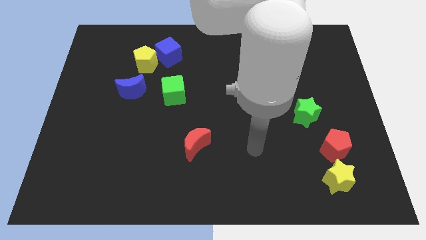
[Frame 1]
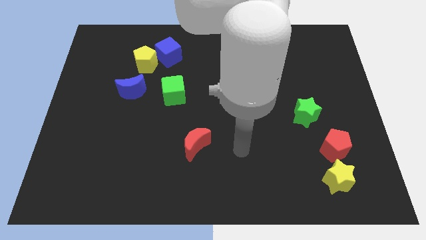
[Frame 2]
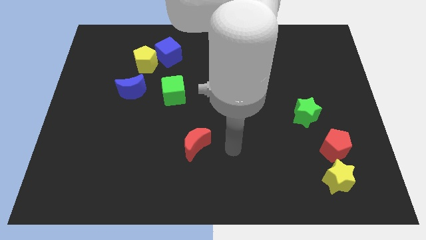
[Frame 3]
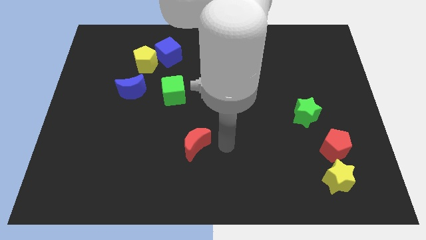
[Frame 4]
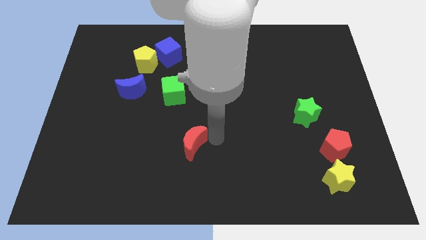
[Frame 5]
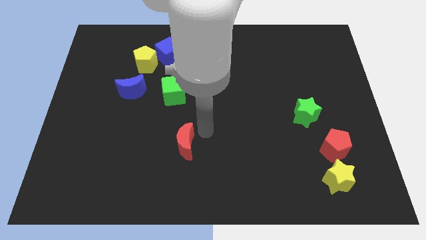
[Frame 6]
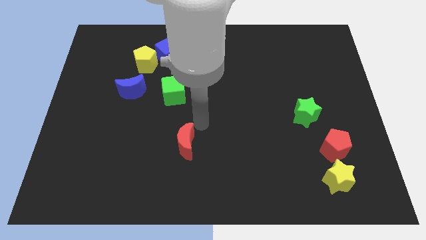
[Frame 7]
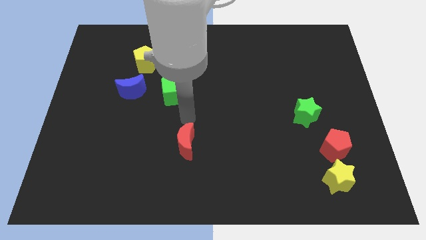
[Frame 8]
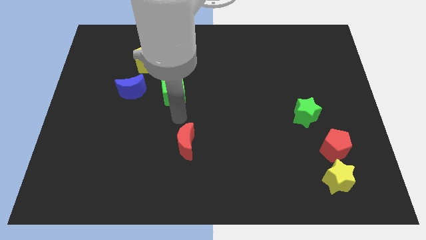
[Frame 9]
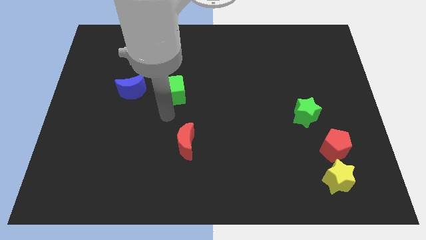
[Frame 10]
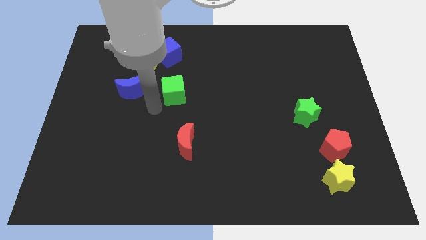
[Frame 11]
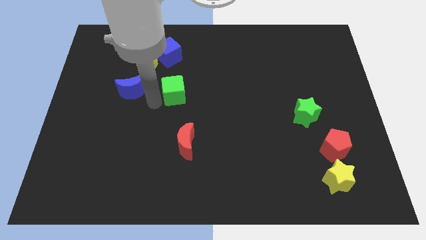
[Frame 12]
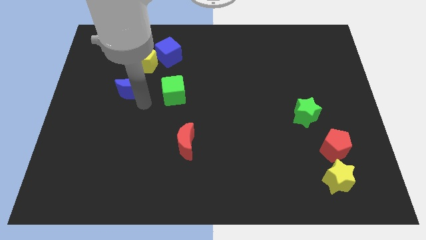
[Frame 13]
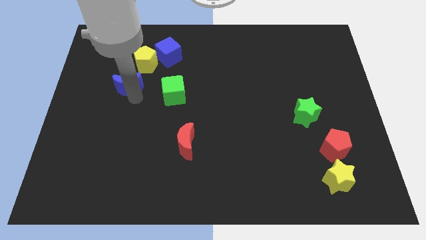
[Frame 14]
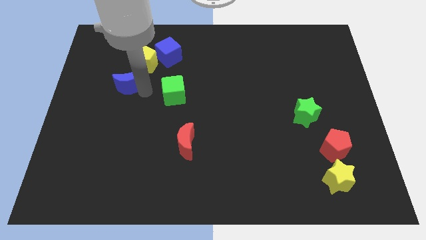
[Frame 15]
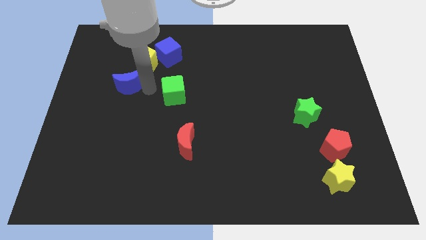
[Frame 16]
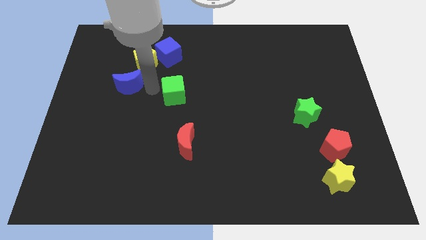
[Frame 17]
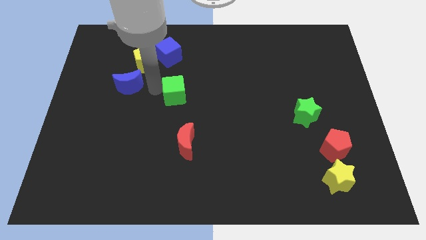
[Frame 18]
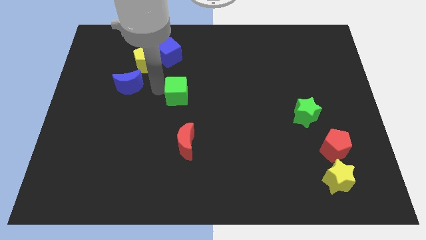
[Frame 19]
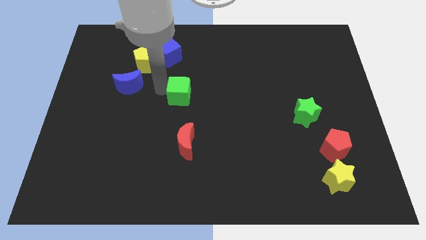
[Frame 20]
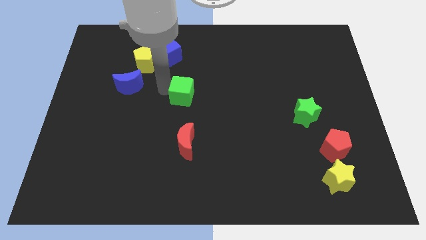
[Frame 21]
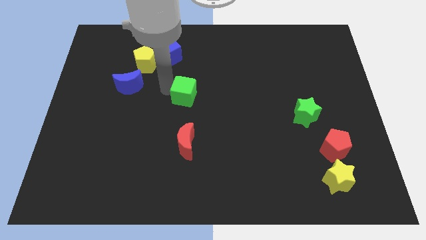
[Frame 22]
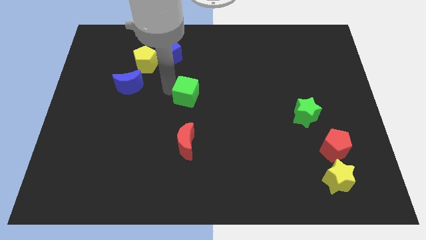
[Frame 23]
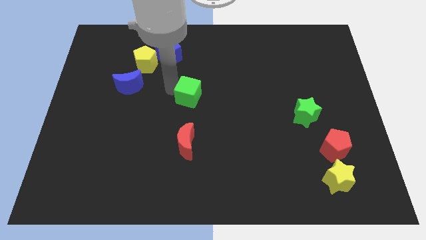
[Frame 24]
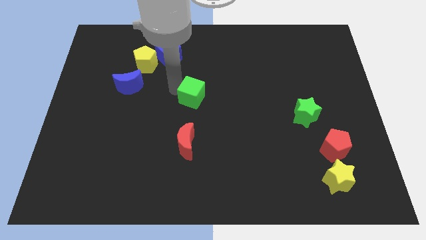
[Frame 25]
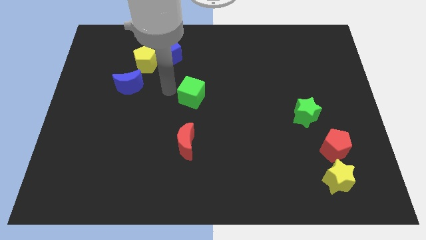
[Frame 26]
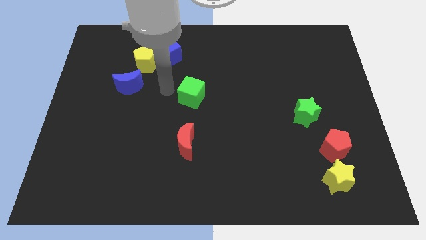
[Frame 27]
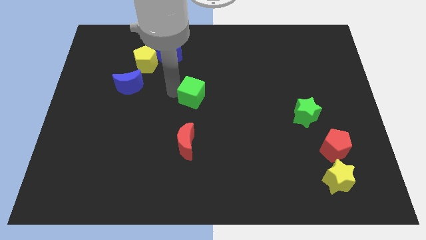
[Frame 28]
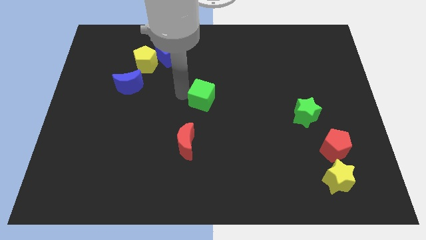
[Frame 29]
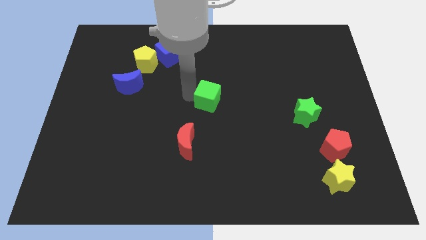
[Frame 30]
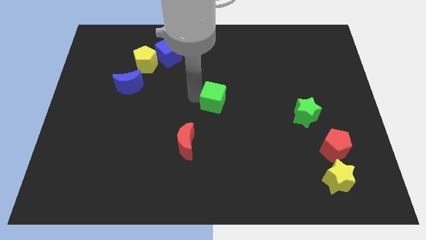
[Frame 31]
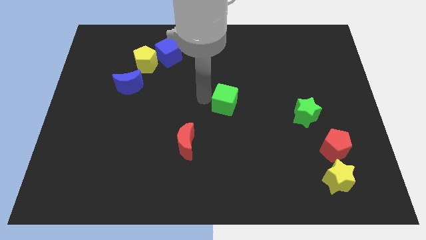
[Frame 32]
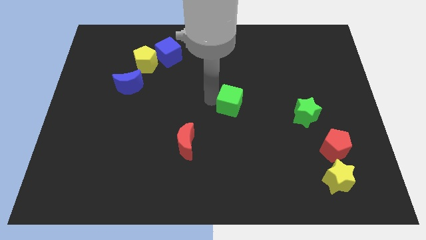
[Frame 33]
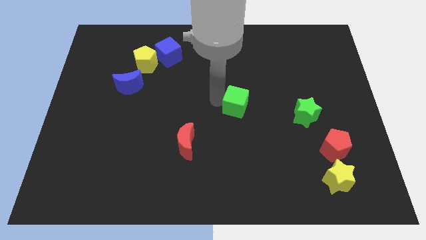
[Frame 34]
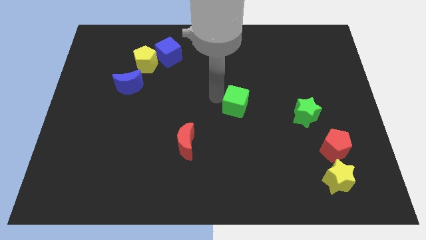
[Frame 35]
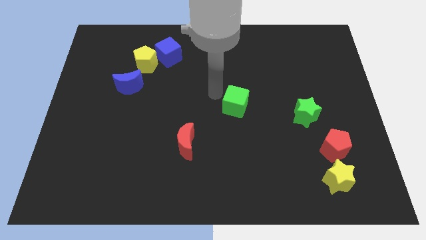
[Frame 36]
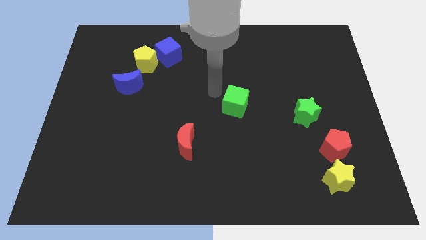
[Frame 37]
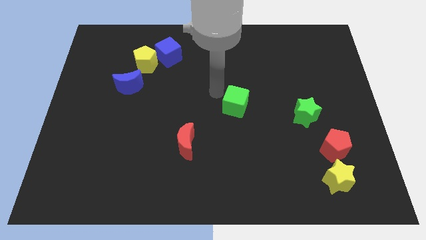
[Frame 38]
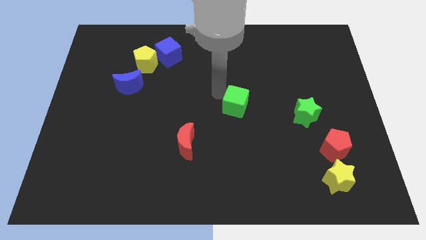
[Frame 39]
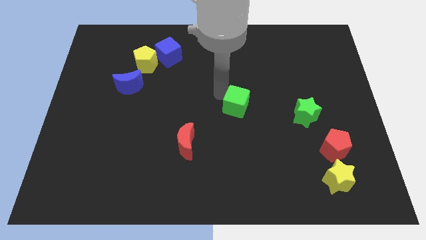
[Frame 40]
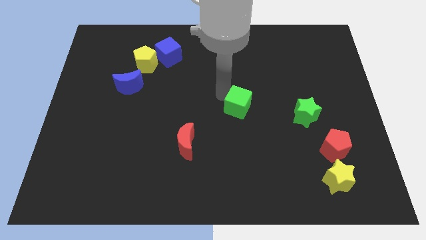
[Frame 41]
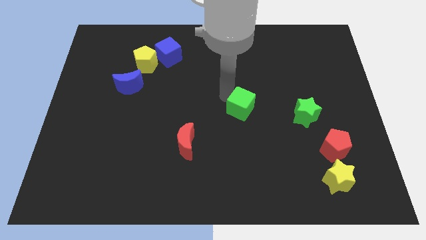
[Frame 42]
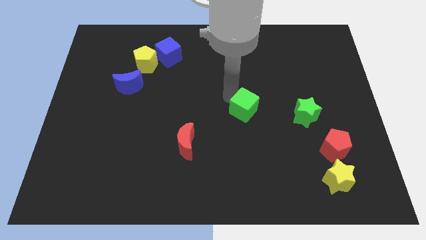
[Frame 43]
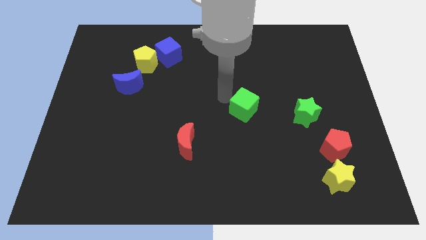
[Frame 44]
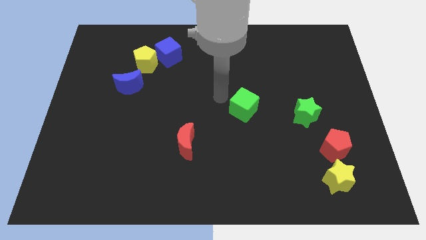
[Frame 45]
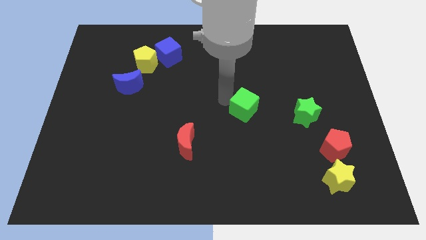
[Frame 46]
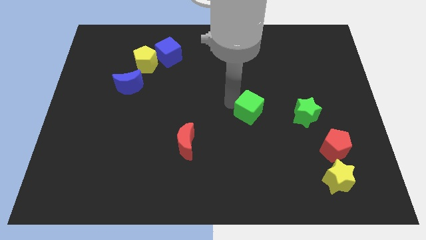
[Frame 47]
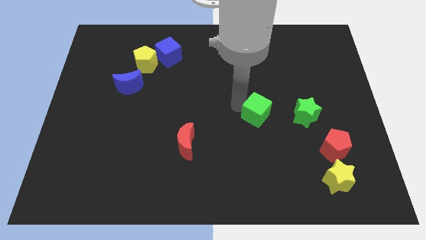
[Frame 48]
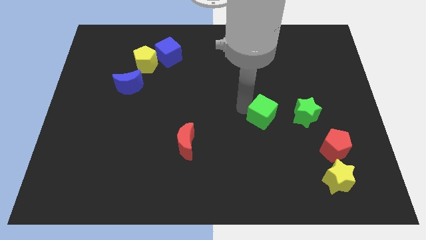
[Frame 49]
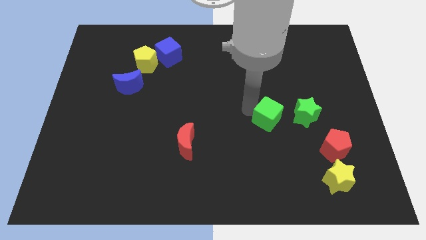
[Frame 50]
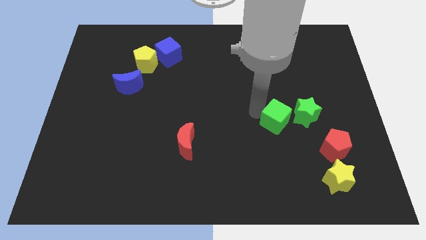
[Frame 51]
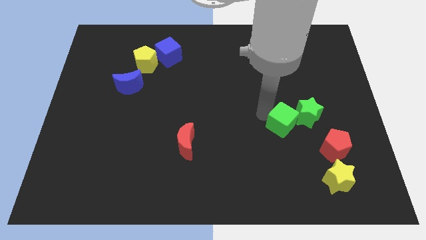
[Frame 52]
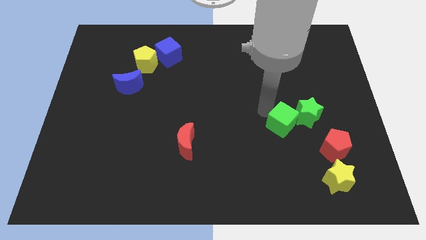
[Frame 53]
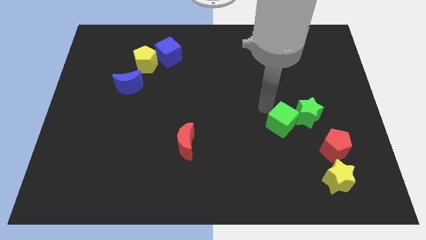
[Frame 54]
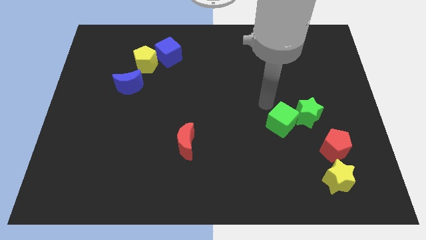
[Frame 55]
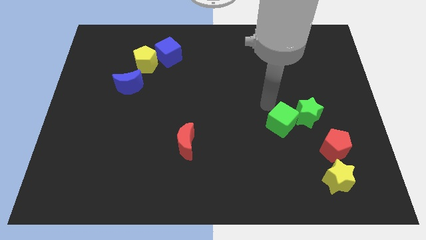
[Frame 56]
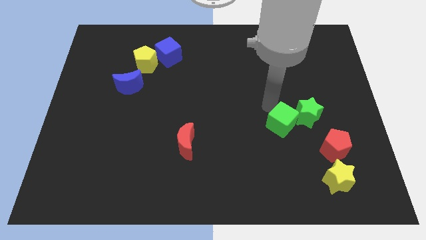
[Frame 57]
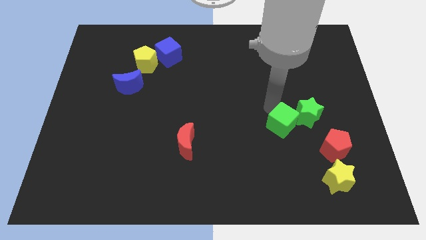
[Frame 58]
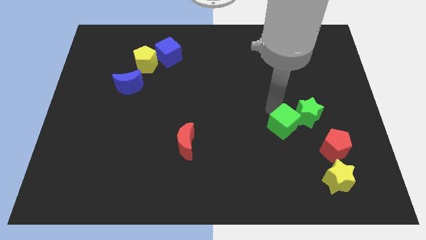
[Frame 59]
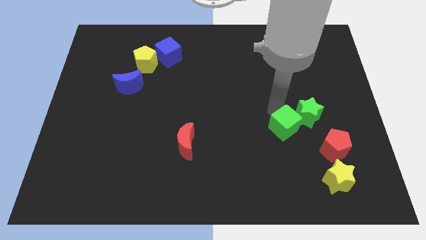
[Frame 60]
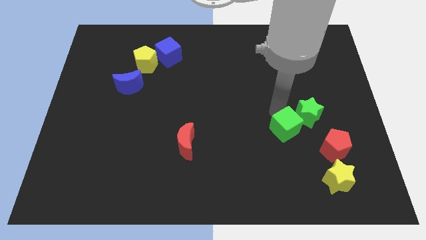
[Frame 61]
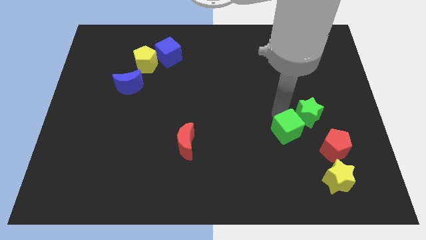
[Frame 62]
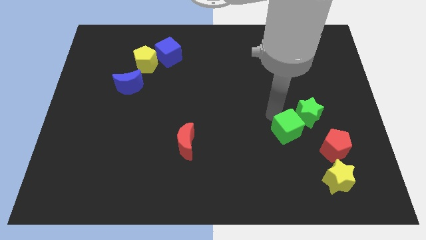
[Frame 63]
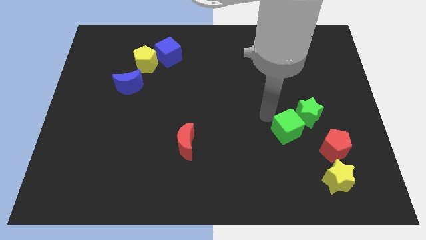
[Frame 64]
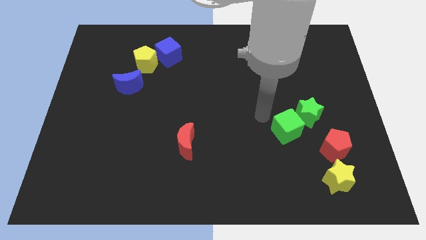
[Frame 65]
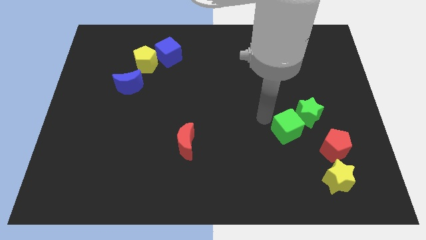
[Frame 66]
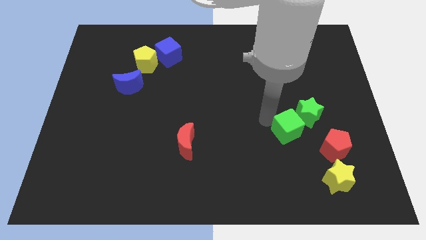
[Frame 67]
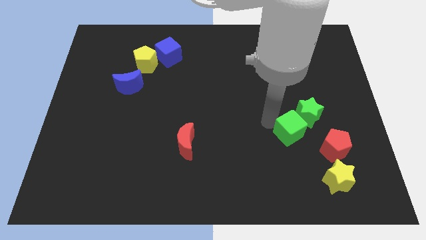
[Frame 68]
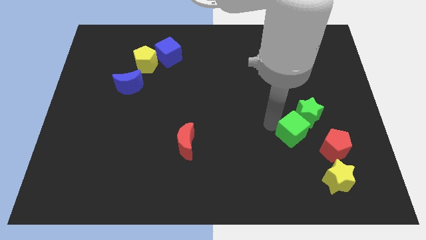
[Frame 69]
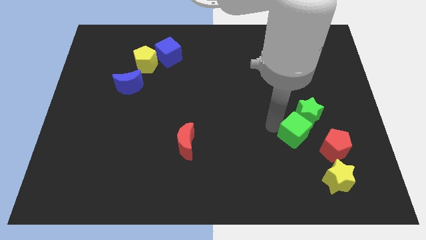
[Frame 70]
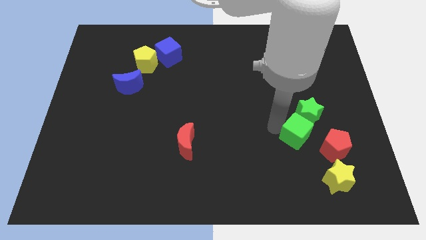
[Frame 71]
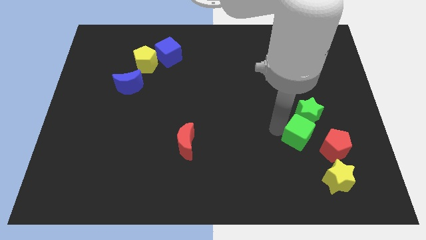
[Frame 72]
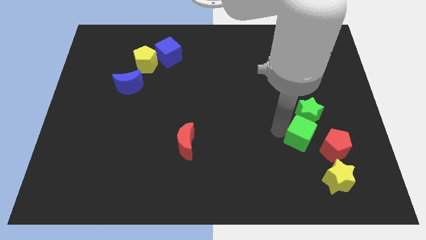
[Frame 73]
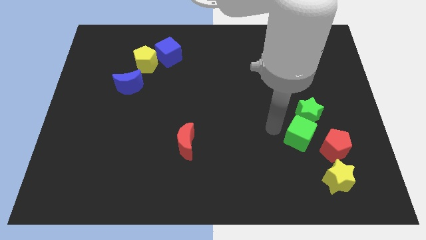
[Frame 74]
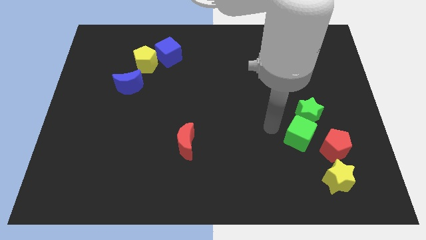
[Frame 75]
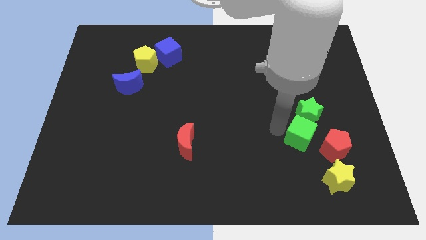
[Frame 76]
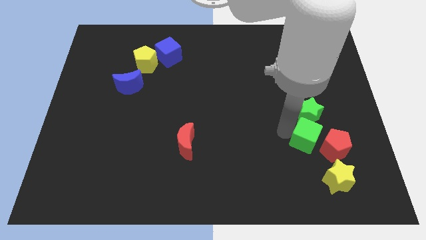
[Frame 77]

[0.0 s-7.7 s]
put the green cube towards the red pentagon

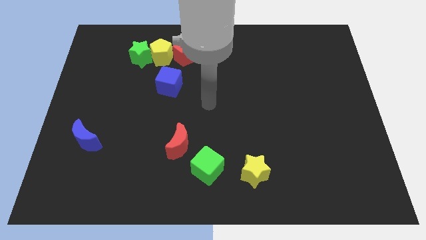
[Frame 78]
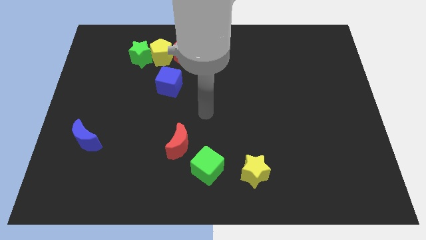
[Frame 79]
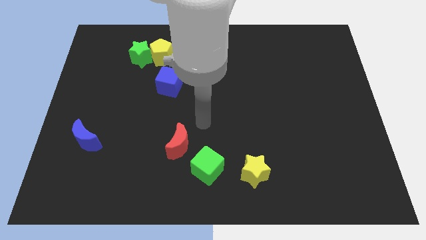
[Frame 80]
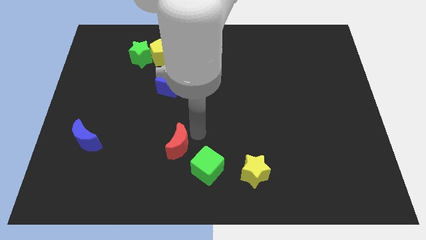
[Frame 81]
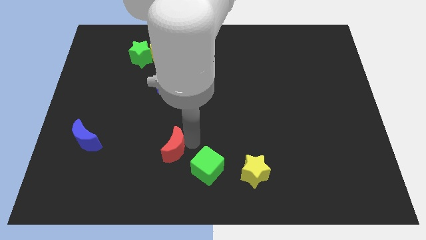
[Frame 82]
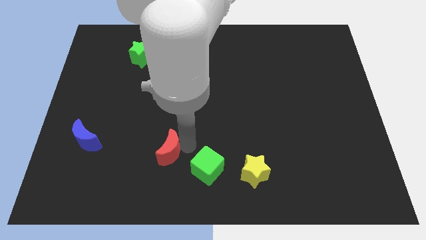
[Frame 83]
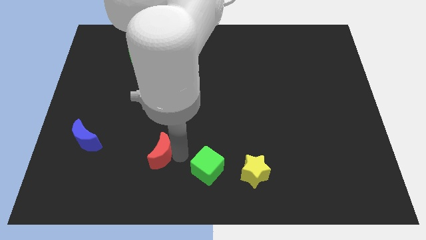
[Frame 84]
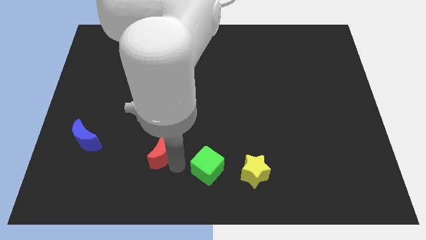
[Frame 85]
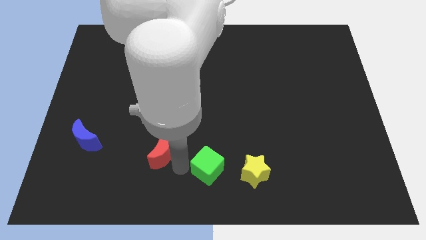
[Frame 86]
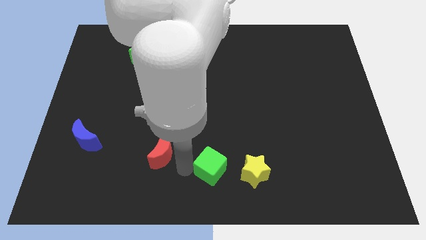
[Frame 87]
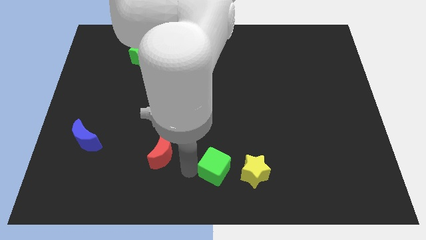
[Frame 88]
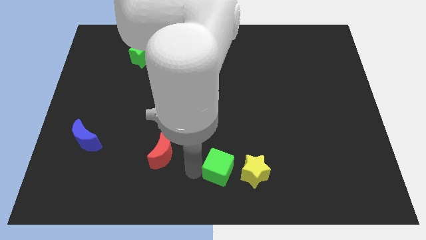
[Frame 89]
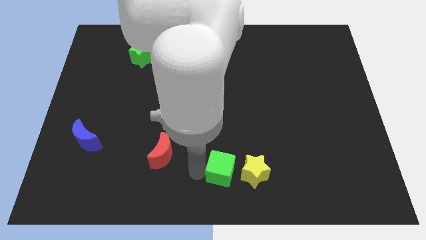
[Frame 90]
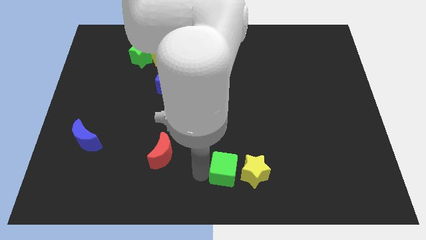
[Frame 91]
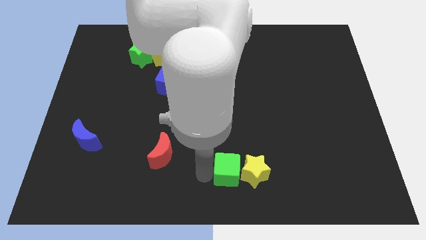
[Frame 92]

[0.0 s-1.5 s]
slide the green cube next to the yellow star
